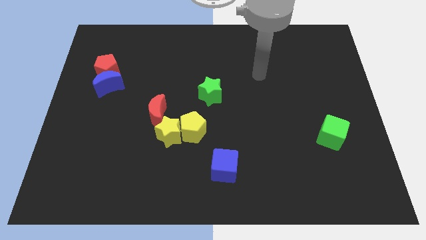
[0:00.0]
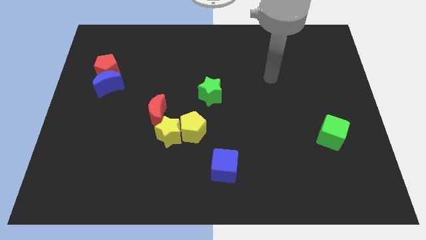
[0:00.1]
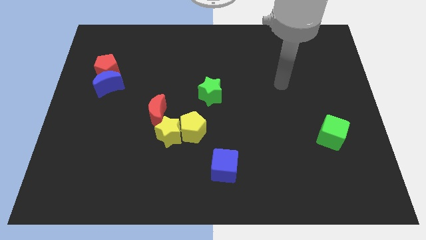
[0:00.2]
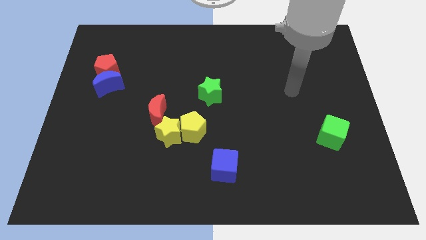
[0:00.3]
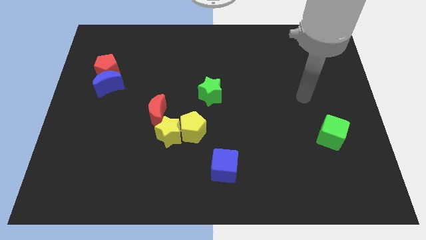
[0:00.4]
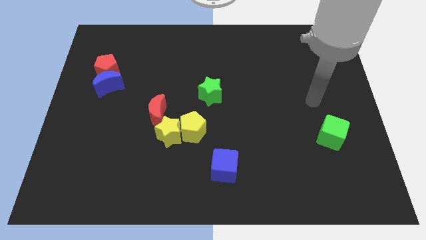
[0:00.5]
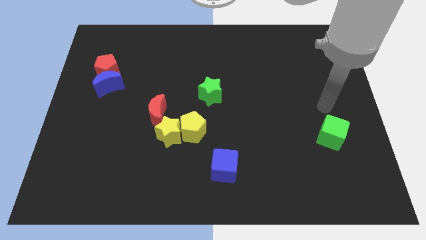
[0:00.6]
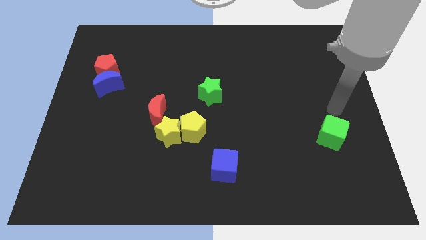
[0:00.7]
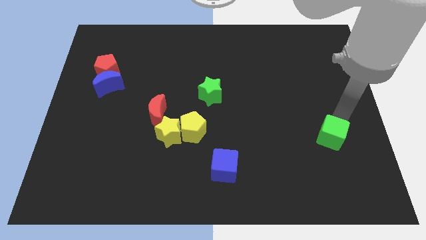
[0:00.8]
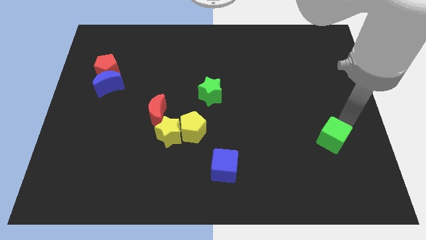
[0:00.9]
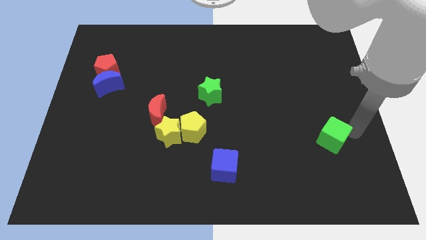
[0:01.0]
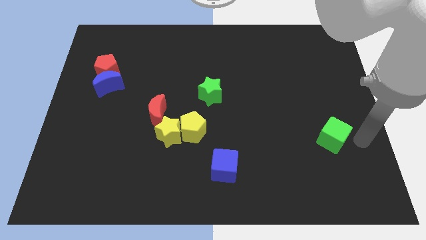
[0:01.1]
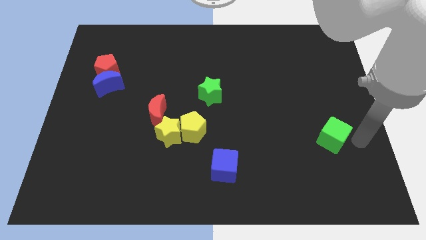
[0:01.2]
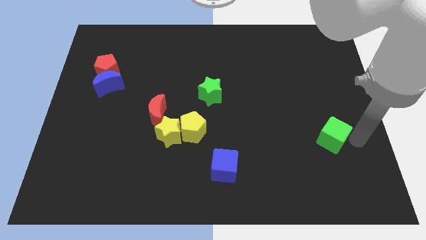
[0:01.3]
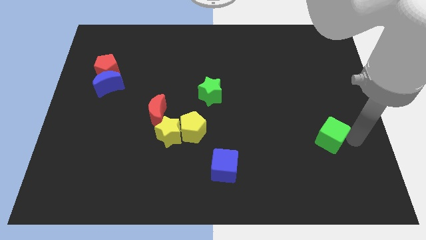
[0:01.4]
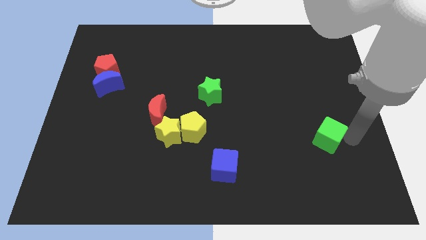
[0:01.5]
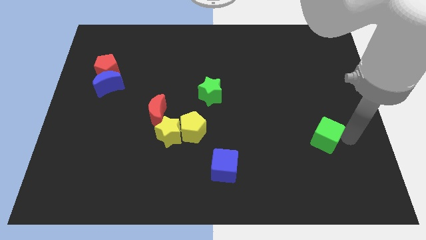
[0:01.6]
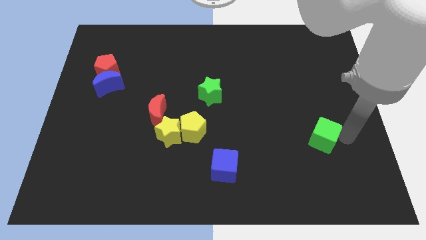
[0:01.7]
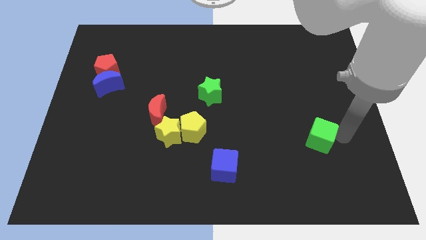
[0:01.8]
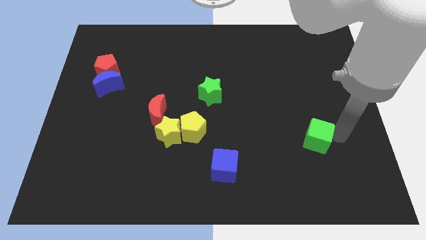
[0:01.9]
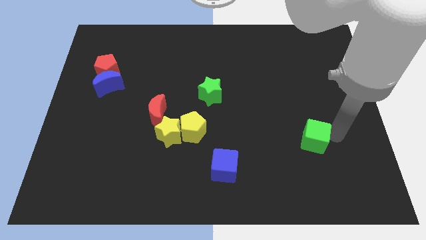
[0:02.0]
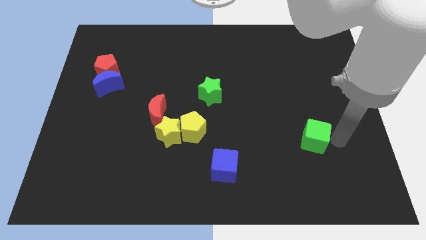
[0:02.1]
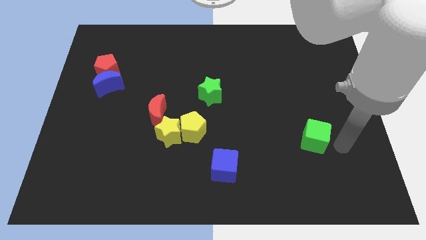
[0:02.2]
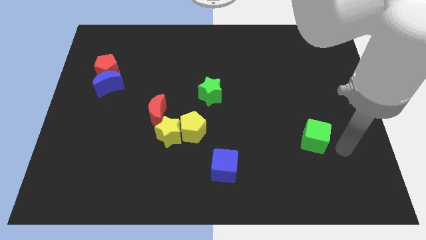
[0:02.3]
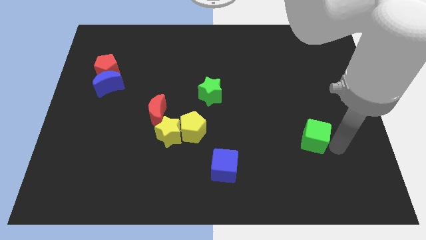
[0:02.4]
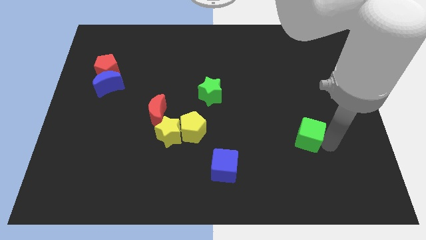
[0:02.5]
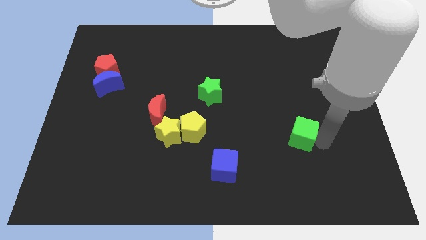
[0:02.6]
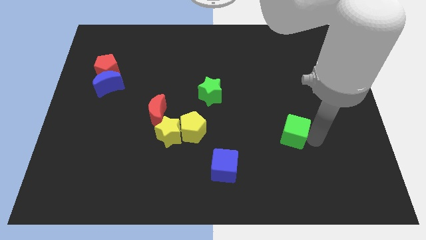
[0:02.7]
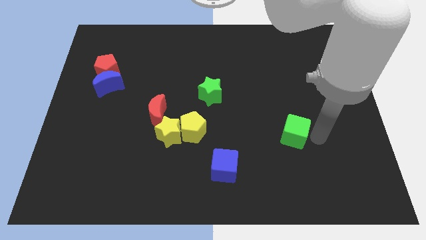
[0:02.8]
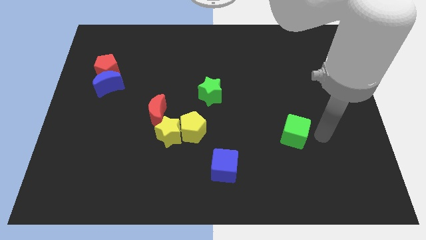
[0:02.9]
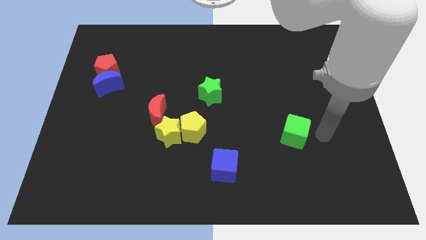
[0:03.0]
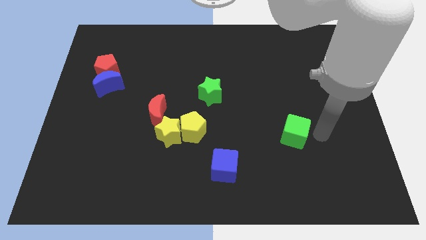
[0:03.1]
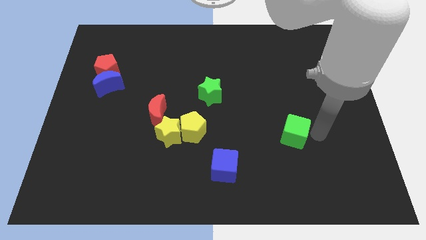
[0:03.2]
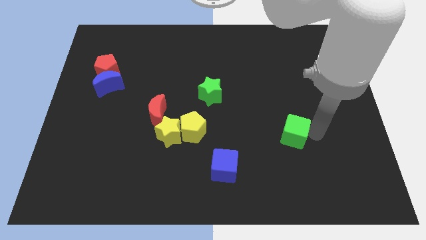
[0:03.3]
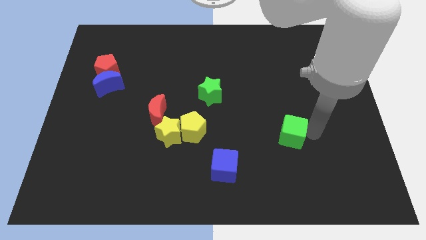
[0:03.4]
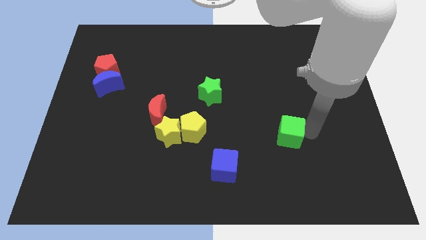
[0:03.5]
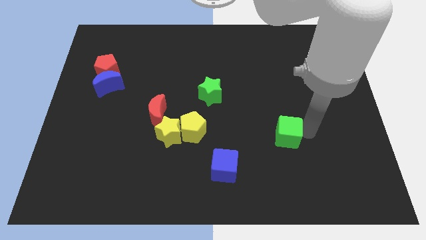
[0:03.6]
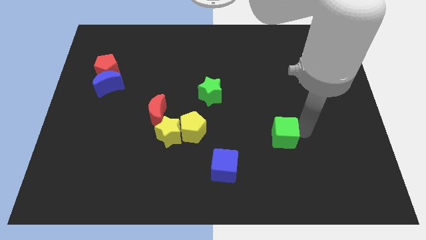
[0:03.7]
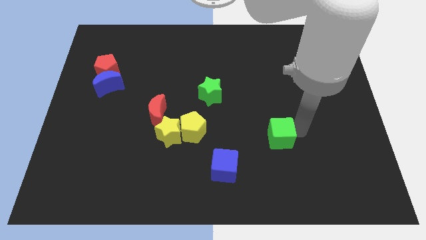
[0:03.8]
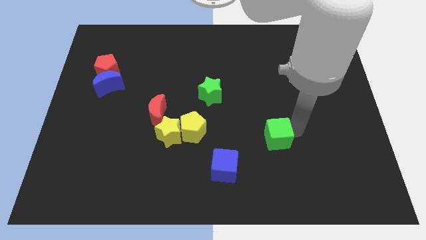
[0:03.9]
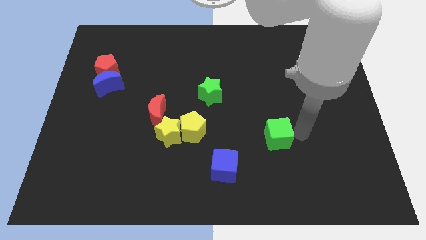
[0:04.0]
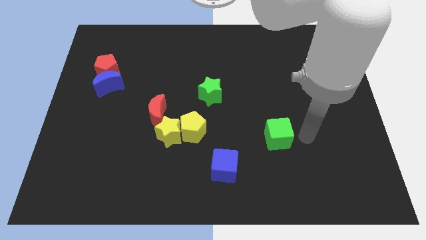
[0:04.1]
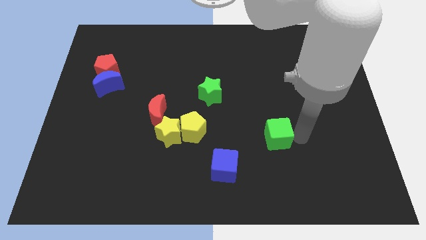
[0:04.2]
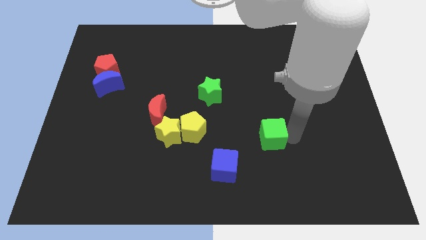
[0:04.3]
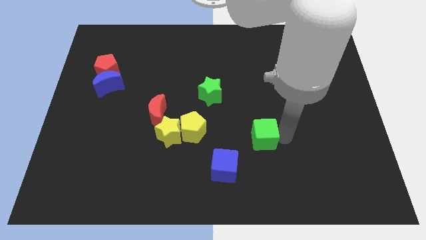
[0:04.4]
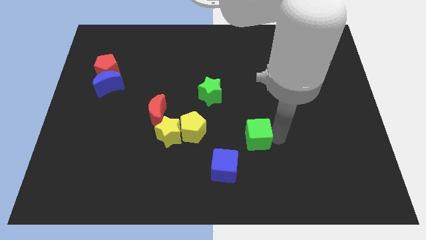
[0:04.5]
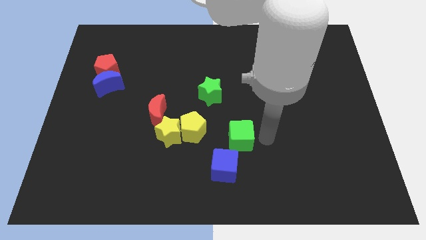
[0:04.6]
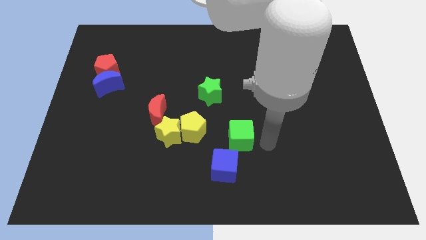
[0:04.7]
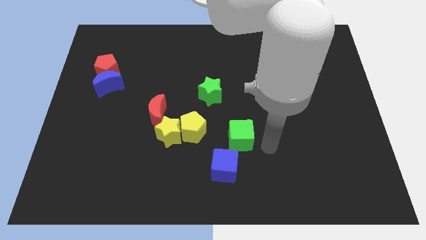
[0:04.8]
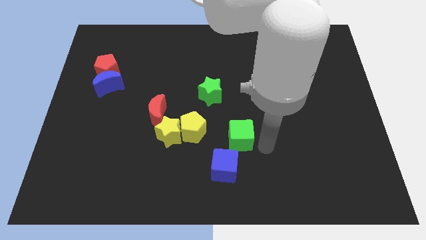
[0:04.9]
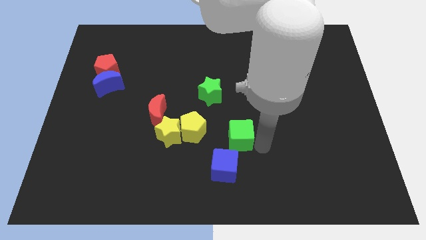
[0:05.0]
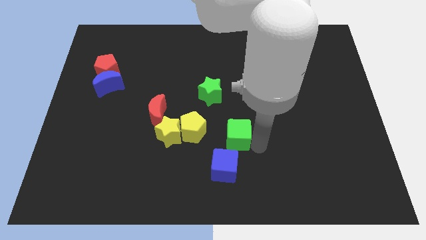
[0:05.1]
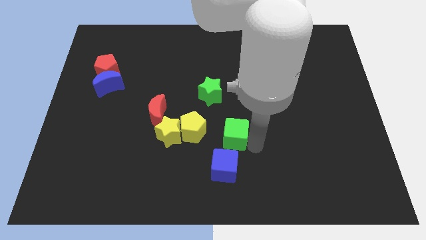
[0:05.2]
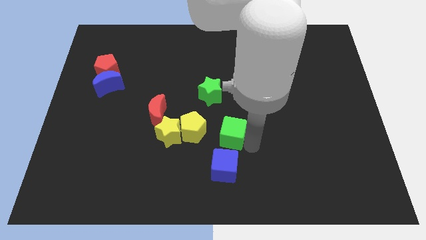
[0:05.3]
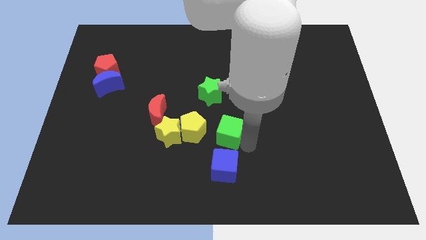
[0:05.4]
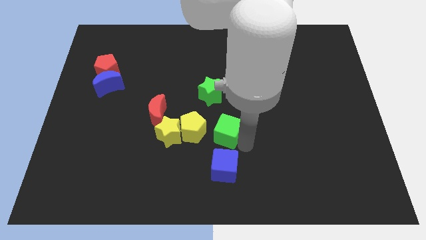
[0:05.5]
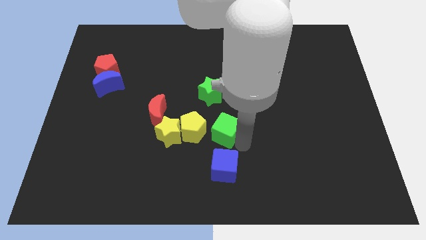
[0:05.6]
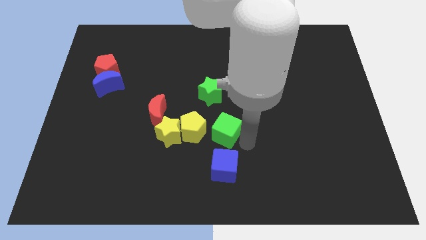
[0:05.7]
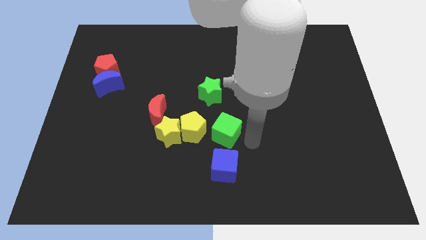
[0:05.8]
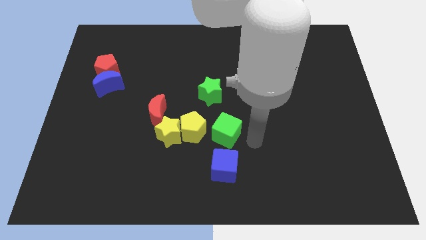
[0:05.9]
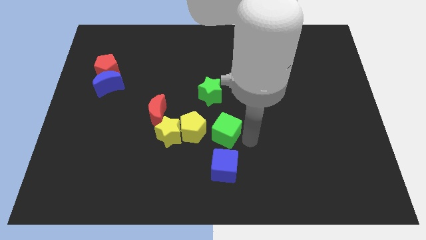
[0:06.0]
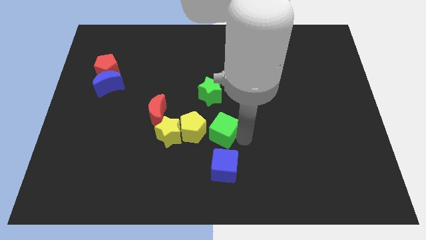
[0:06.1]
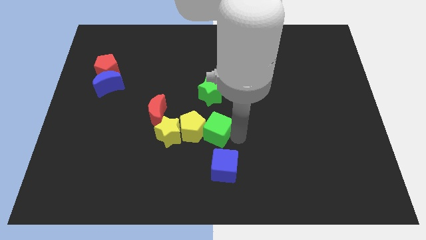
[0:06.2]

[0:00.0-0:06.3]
move the green cube to the yellow pentagon
